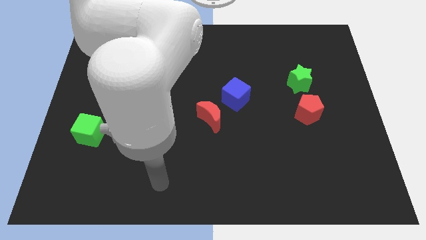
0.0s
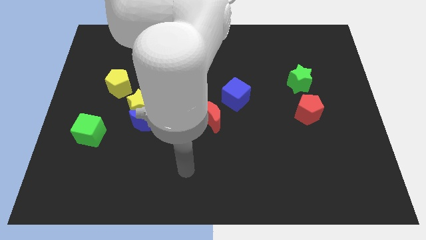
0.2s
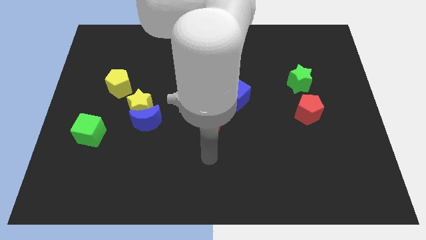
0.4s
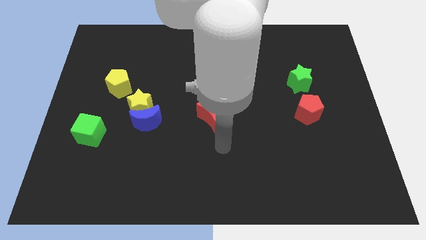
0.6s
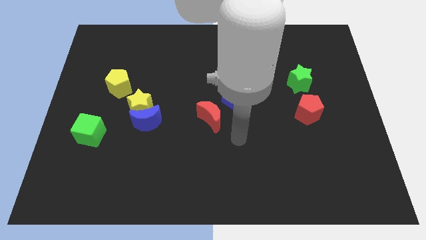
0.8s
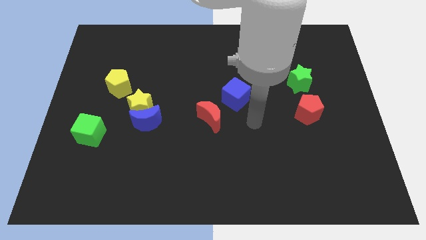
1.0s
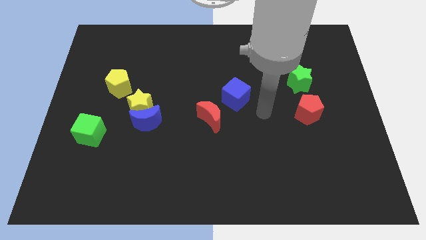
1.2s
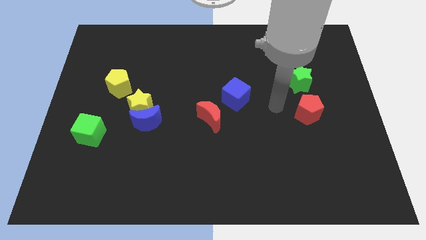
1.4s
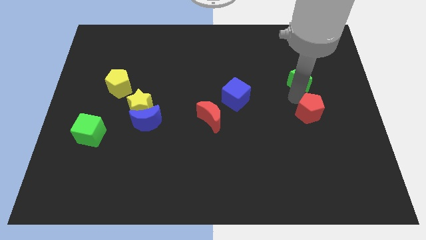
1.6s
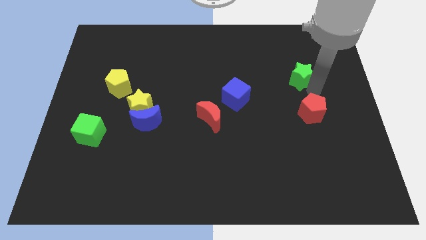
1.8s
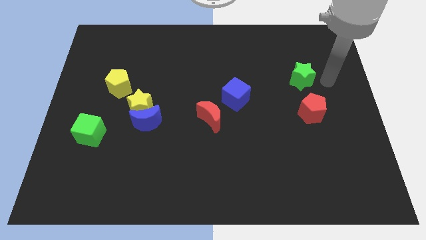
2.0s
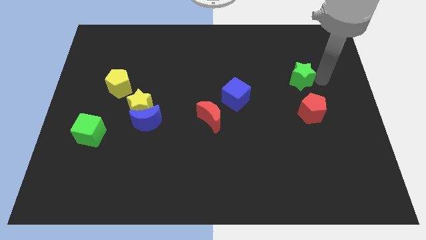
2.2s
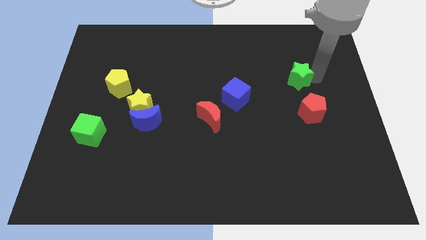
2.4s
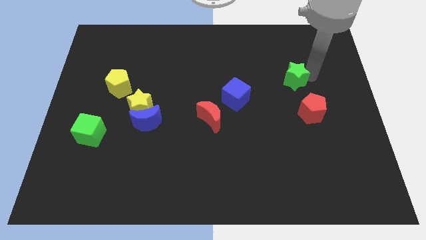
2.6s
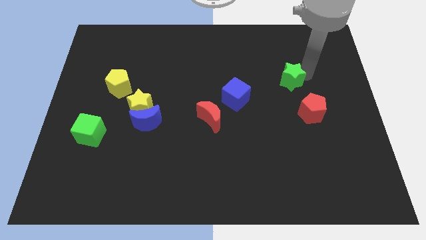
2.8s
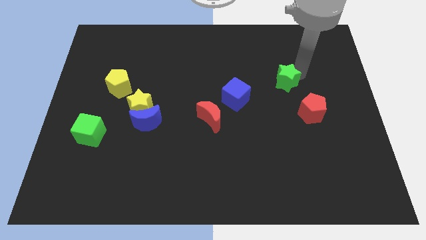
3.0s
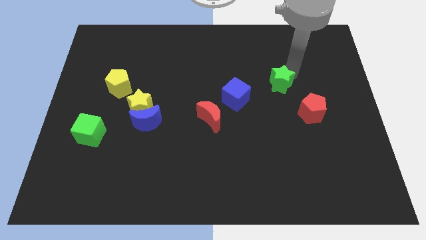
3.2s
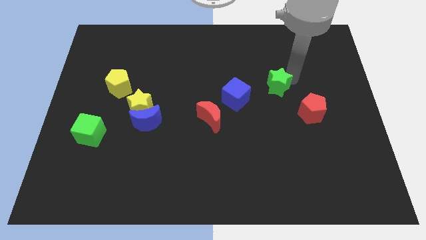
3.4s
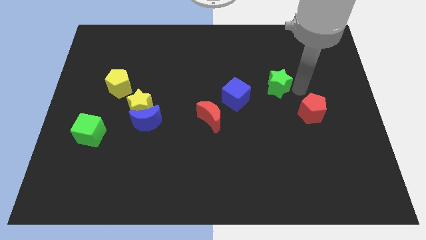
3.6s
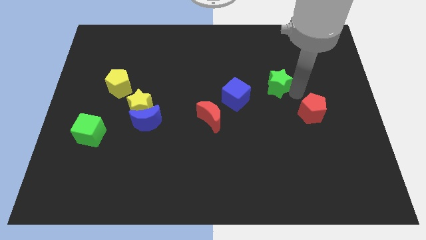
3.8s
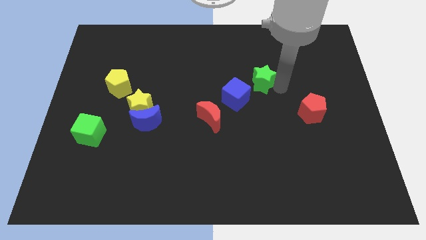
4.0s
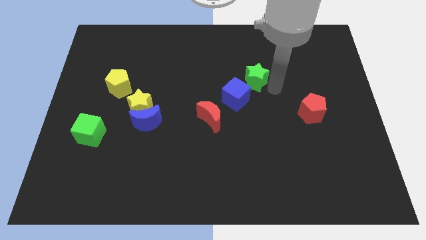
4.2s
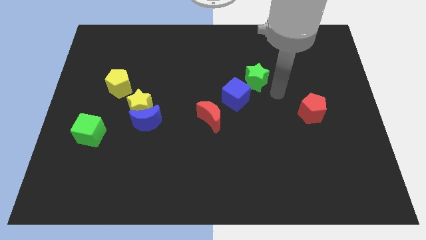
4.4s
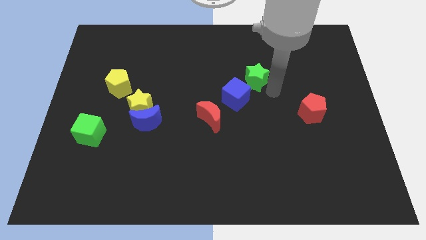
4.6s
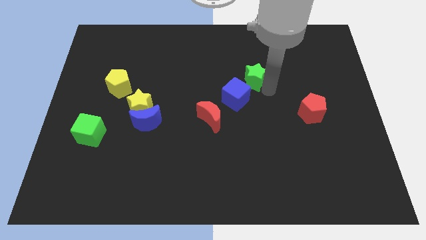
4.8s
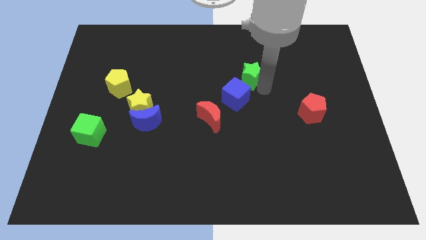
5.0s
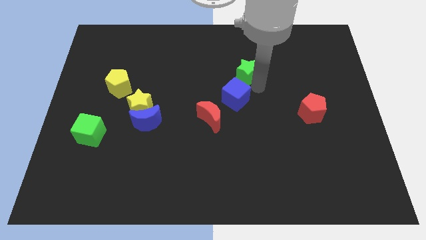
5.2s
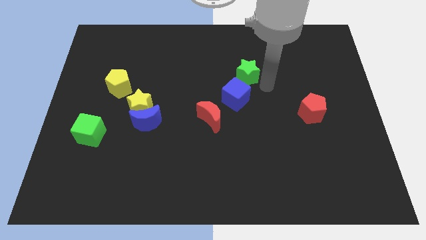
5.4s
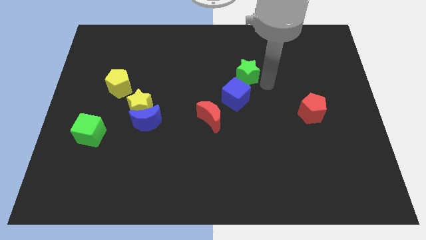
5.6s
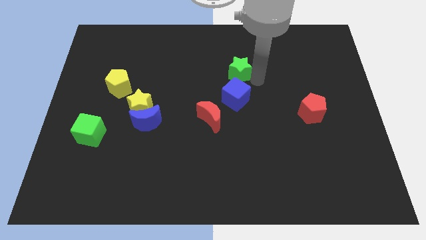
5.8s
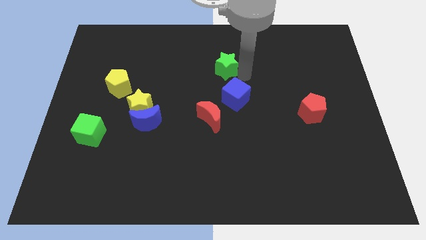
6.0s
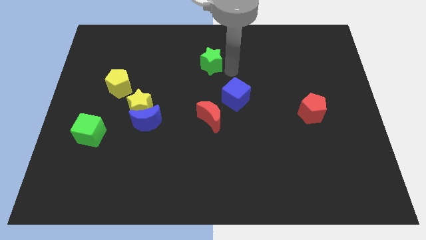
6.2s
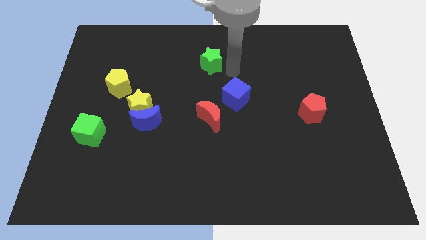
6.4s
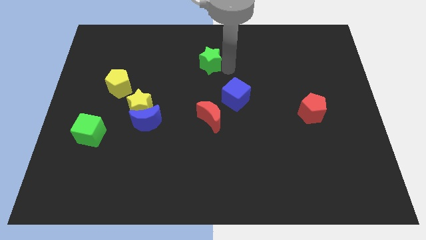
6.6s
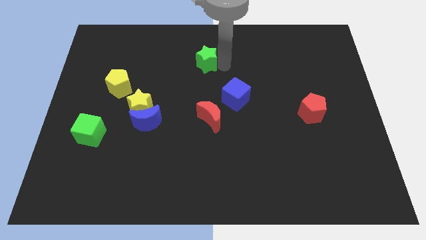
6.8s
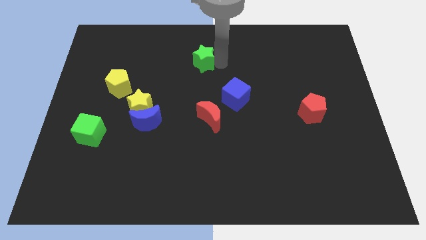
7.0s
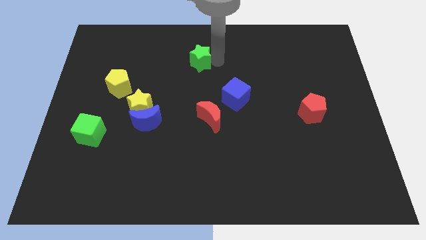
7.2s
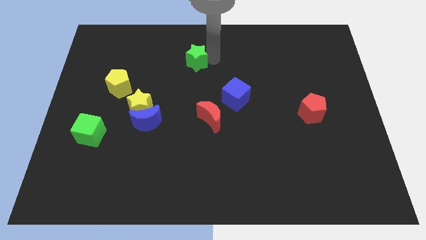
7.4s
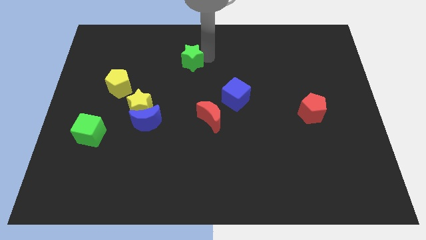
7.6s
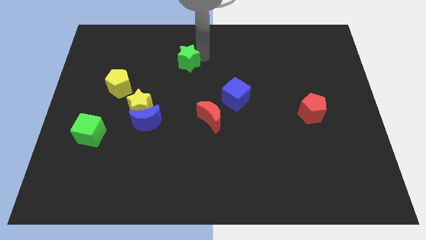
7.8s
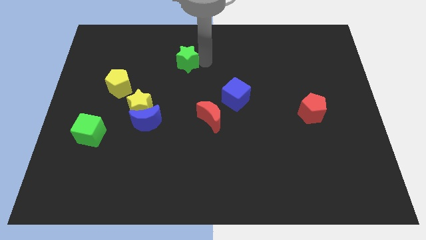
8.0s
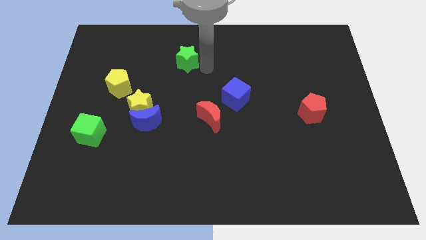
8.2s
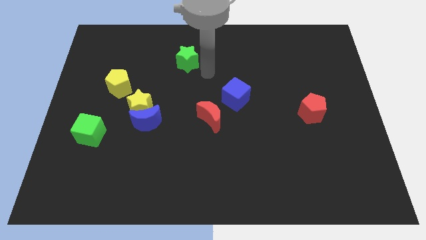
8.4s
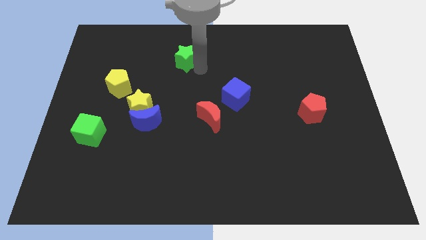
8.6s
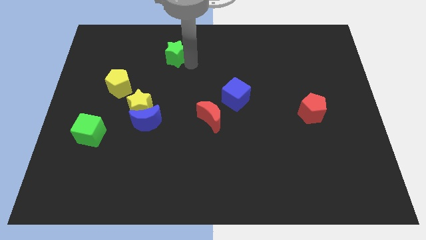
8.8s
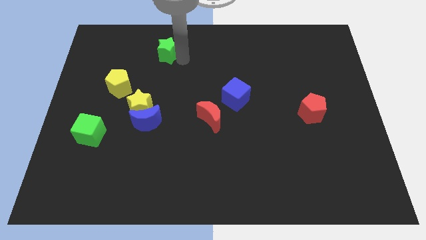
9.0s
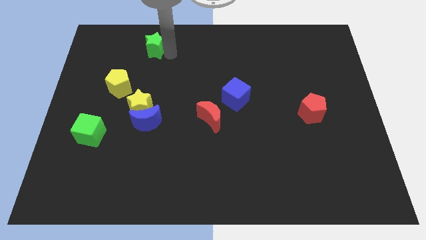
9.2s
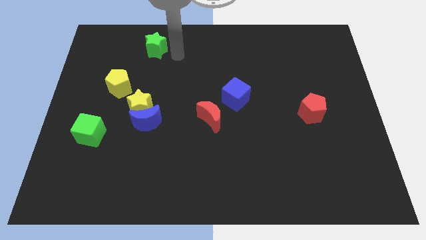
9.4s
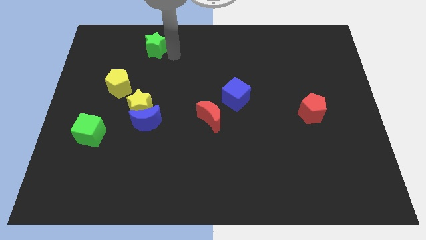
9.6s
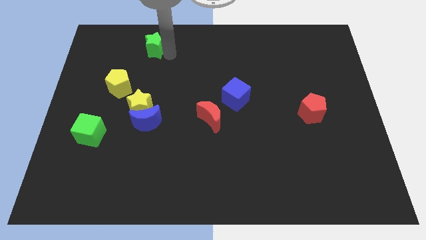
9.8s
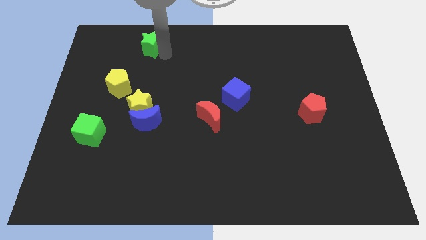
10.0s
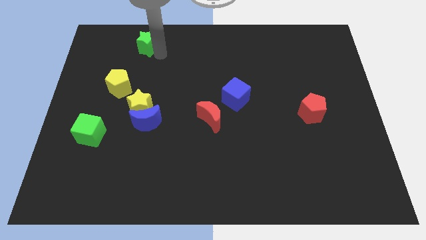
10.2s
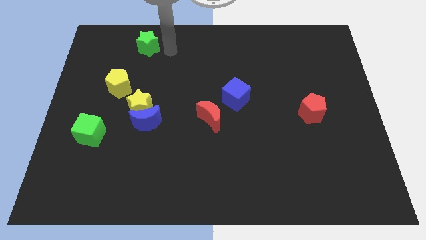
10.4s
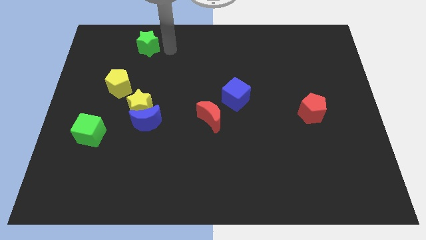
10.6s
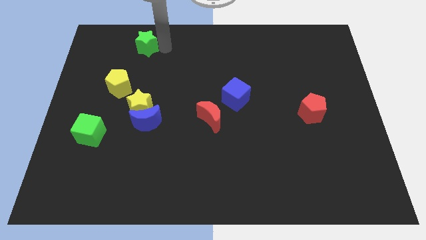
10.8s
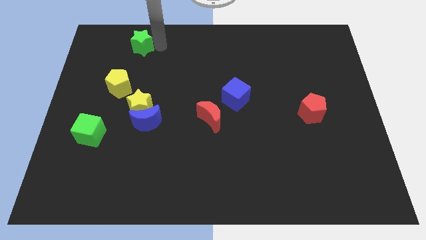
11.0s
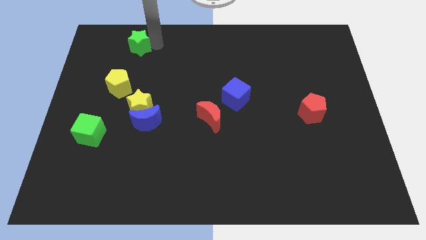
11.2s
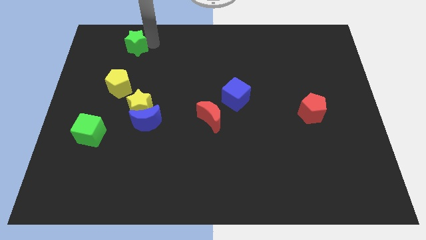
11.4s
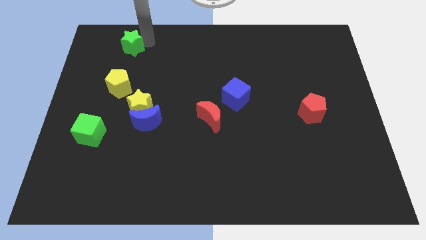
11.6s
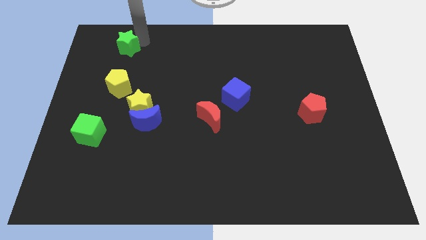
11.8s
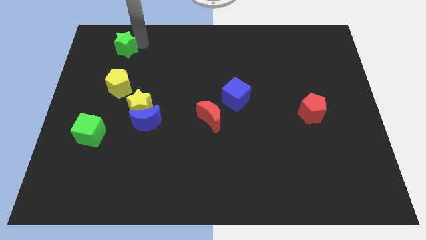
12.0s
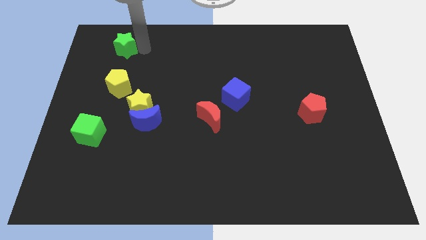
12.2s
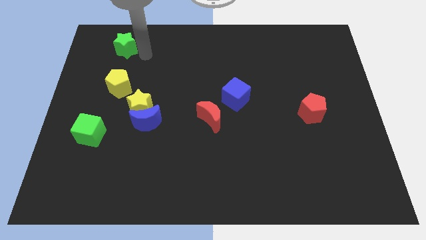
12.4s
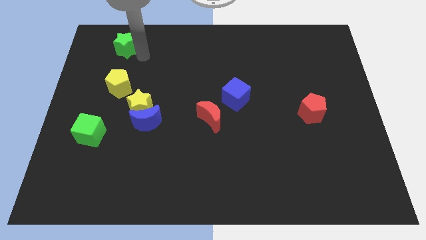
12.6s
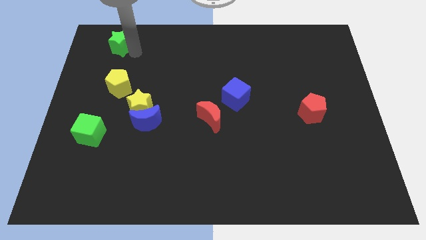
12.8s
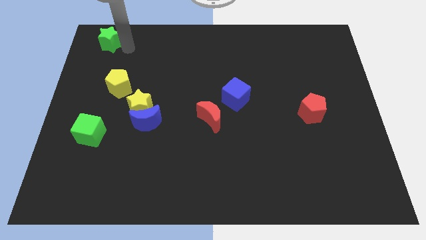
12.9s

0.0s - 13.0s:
slide the green star to the top left corner

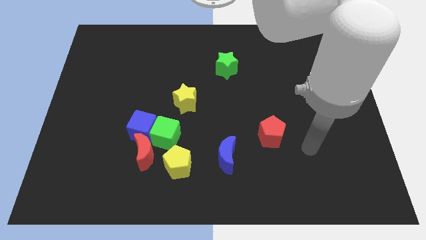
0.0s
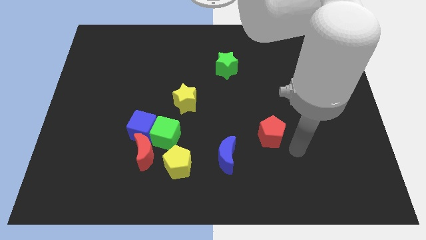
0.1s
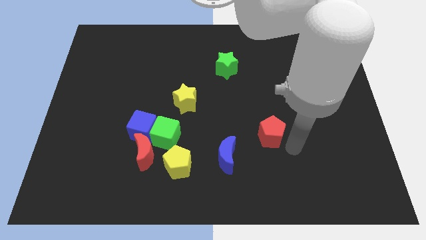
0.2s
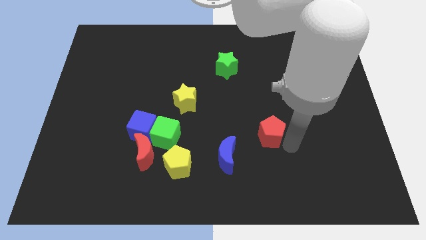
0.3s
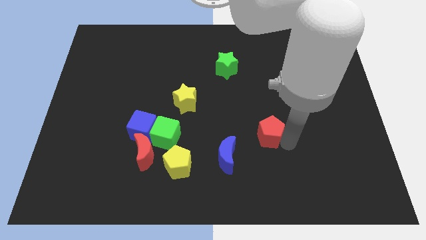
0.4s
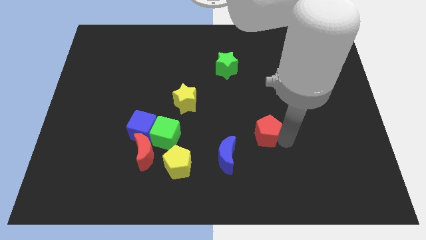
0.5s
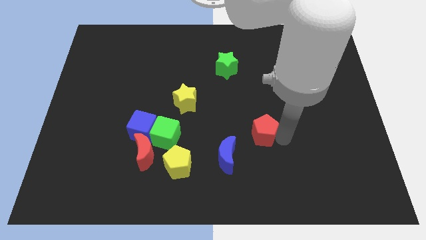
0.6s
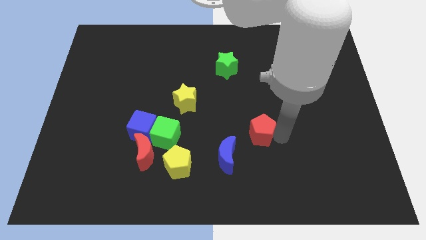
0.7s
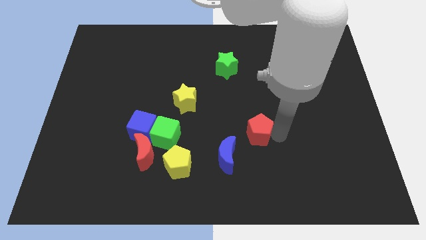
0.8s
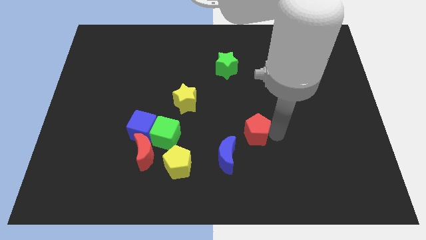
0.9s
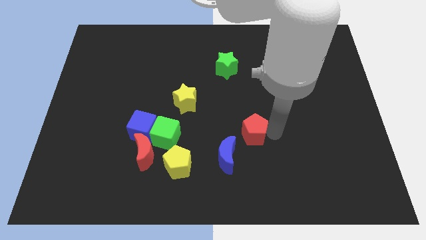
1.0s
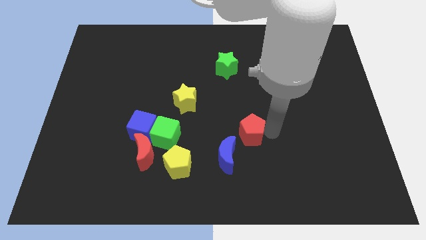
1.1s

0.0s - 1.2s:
move the red pentagon to the middle of the board
